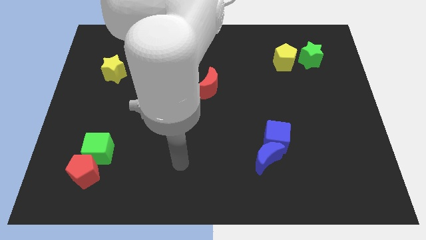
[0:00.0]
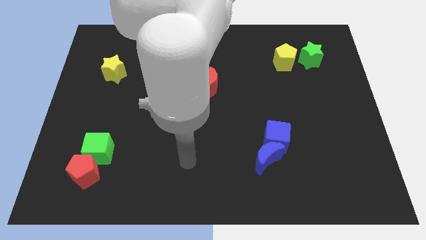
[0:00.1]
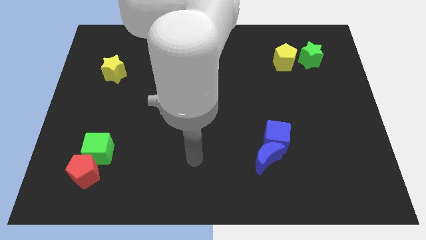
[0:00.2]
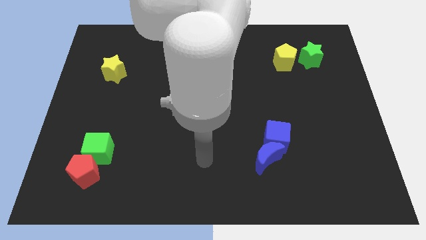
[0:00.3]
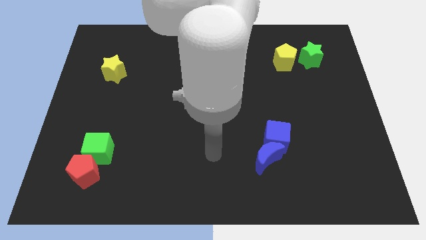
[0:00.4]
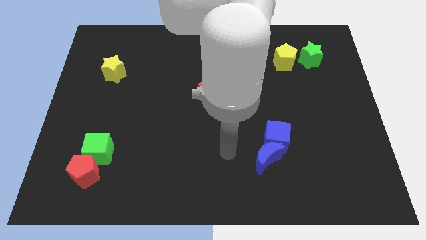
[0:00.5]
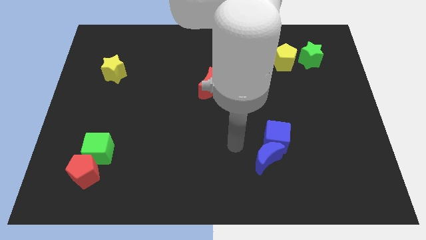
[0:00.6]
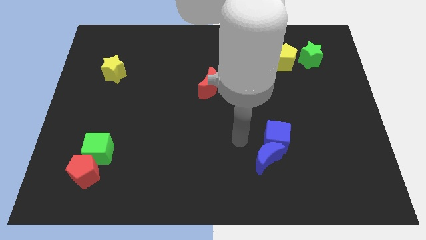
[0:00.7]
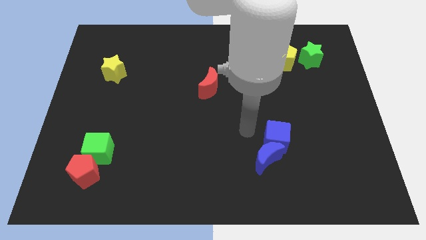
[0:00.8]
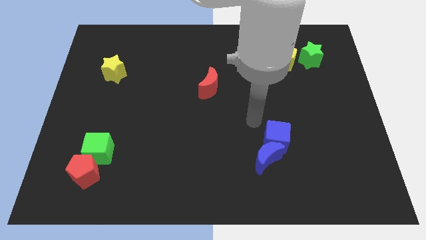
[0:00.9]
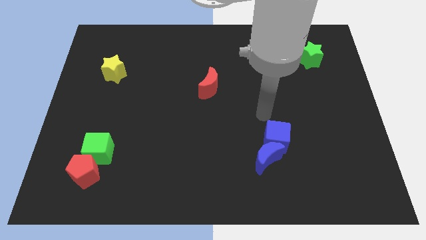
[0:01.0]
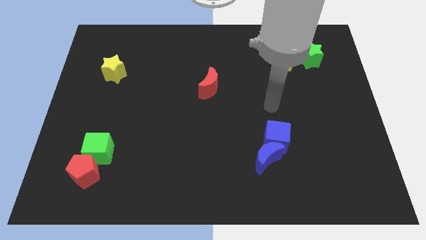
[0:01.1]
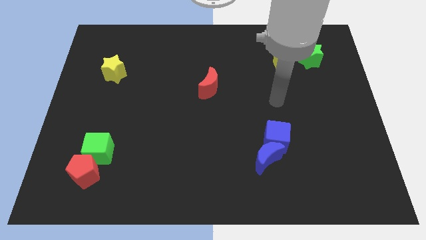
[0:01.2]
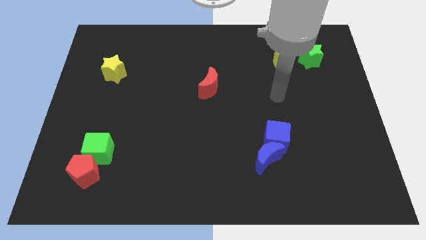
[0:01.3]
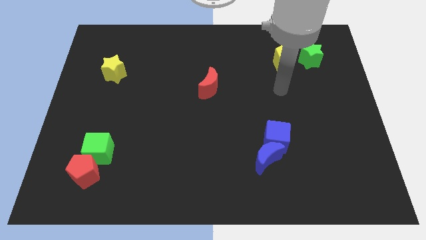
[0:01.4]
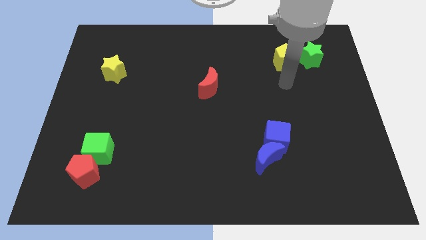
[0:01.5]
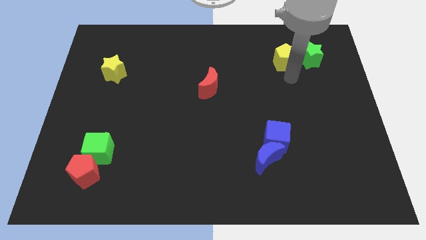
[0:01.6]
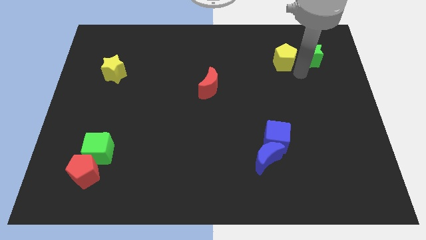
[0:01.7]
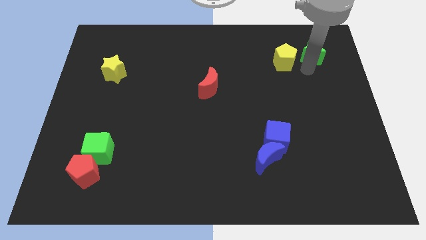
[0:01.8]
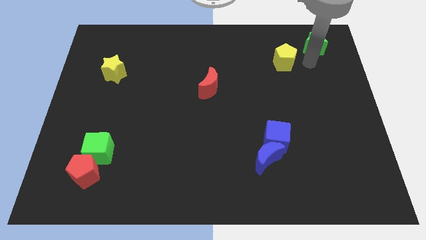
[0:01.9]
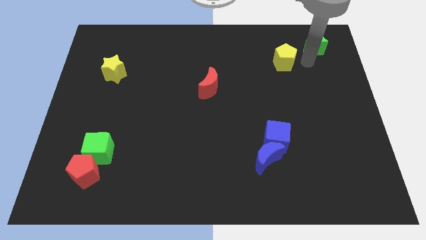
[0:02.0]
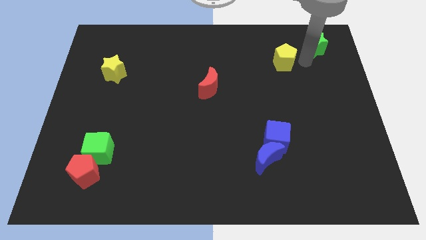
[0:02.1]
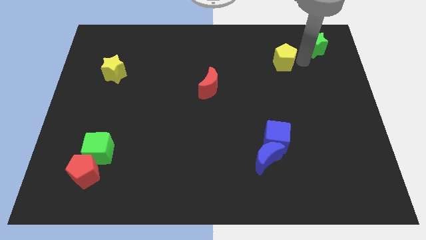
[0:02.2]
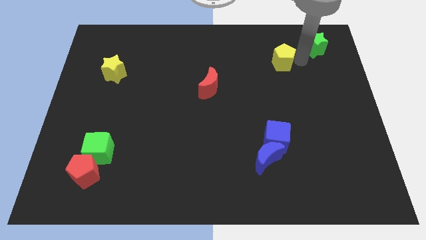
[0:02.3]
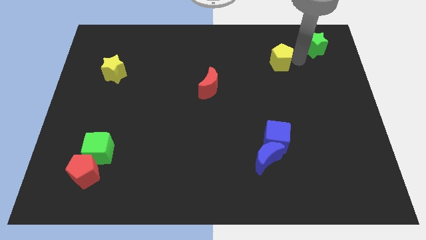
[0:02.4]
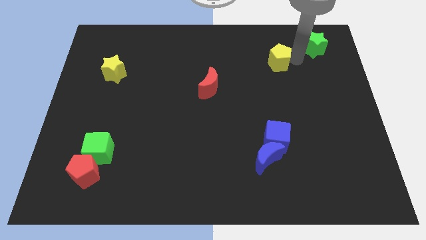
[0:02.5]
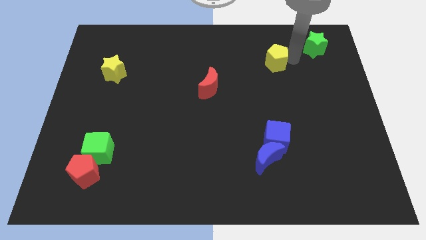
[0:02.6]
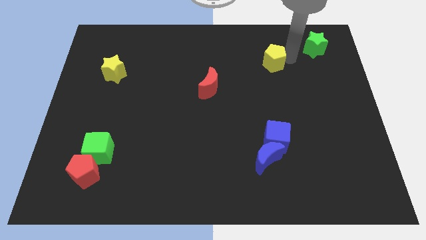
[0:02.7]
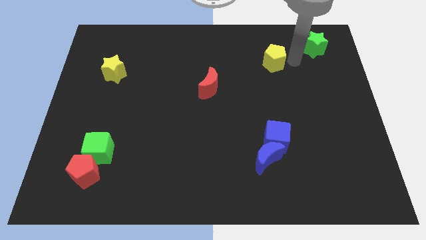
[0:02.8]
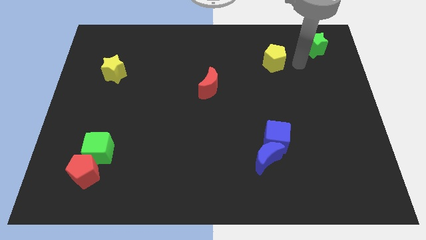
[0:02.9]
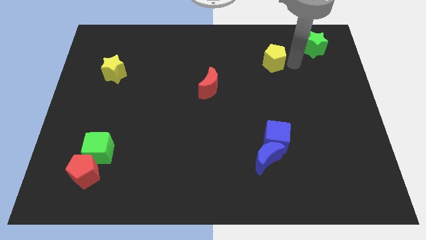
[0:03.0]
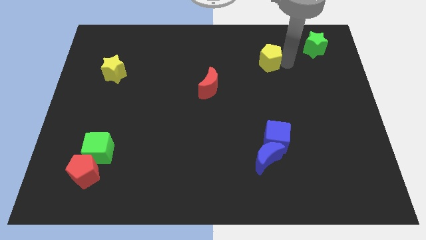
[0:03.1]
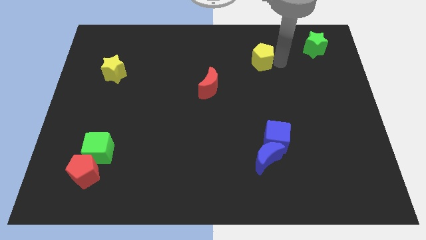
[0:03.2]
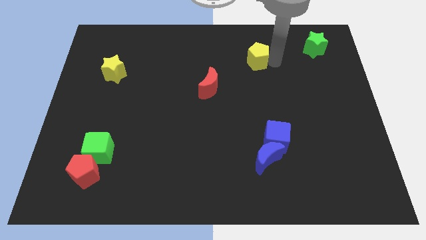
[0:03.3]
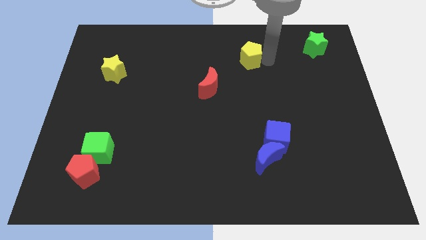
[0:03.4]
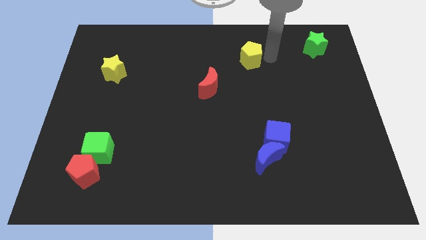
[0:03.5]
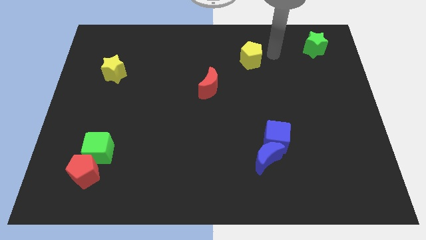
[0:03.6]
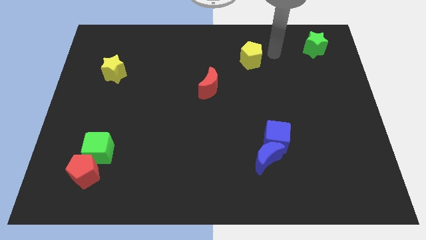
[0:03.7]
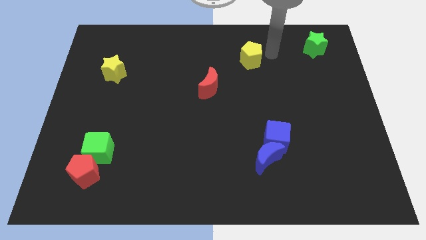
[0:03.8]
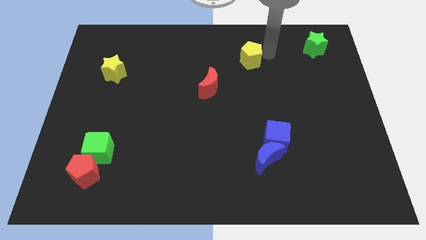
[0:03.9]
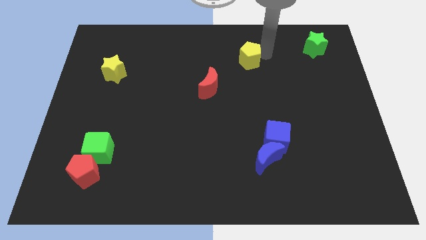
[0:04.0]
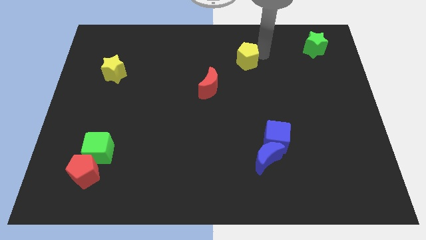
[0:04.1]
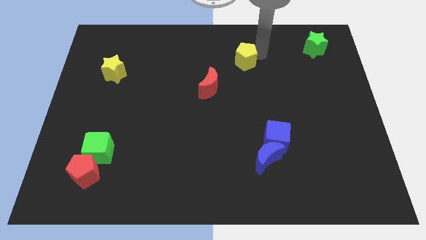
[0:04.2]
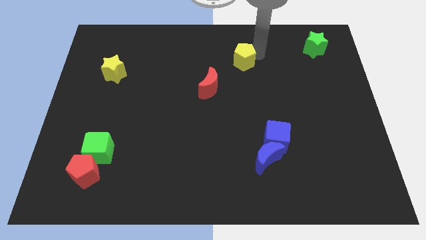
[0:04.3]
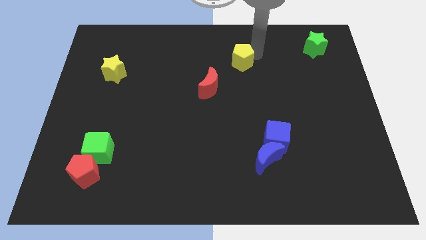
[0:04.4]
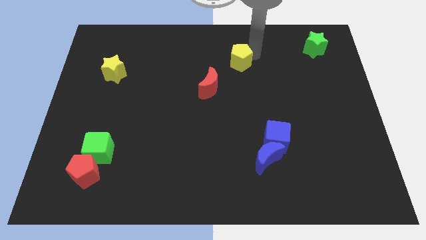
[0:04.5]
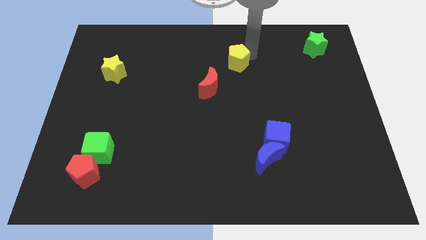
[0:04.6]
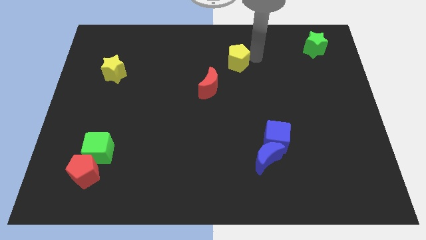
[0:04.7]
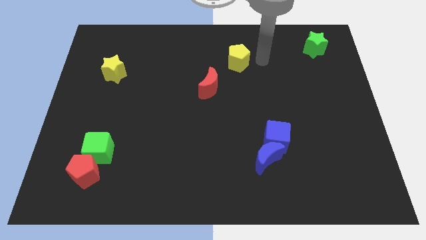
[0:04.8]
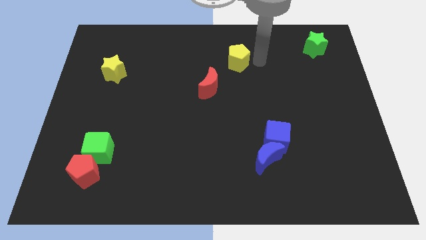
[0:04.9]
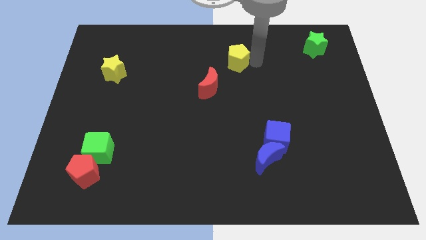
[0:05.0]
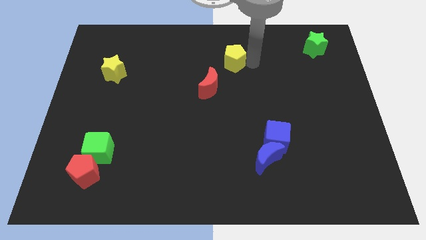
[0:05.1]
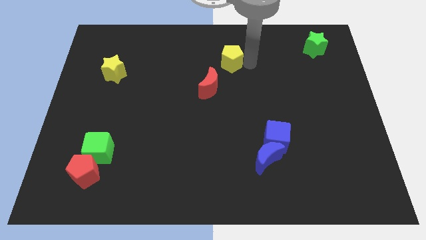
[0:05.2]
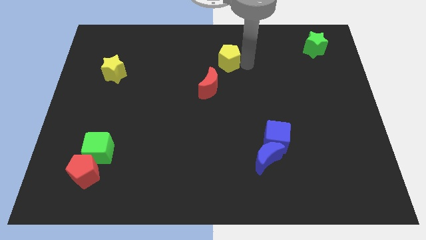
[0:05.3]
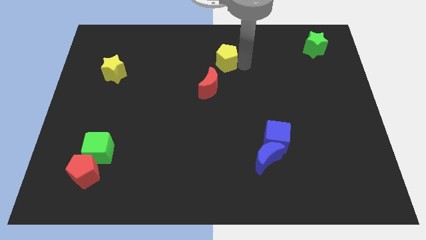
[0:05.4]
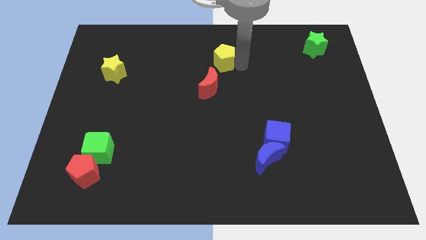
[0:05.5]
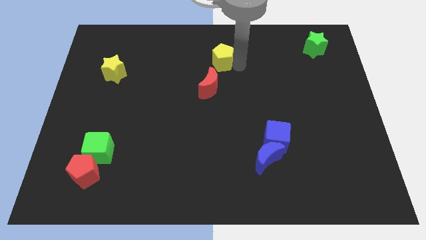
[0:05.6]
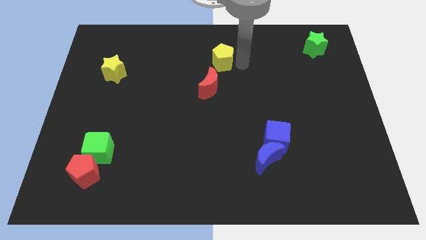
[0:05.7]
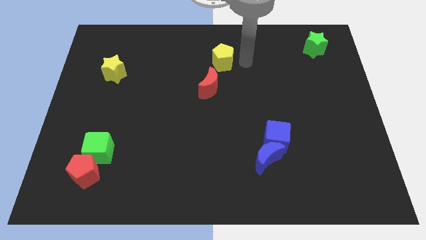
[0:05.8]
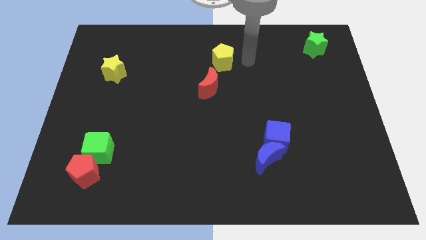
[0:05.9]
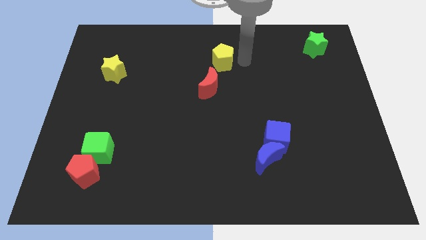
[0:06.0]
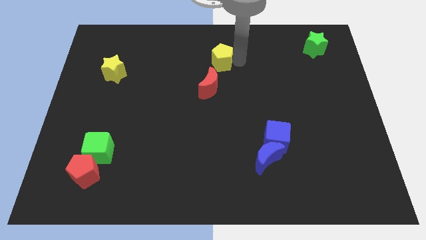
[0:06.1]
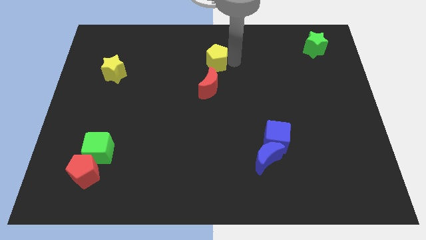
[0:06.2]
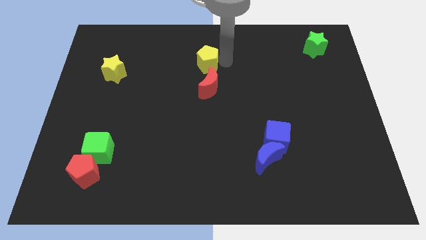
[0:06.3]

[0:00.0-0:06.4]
slide the yellow pentagon to the left

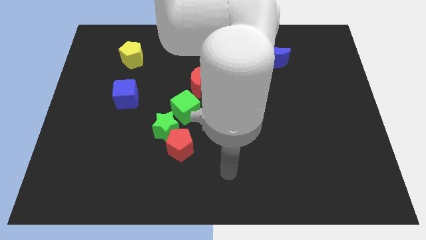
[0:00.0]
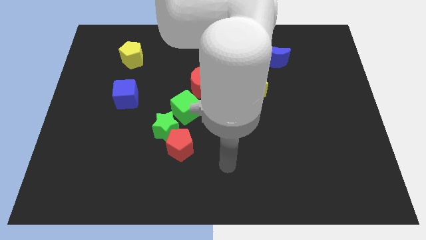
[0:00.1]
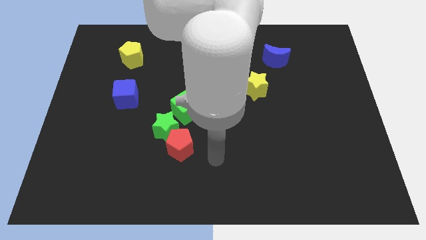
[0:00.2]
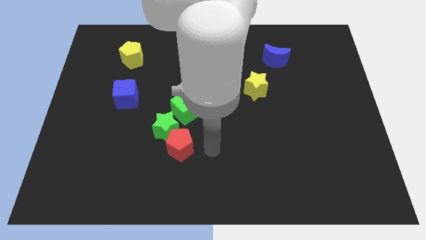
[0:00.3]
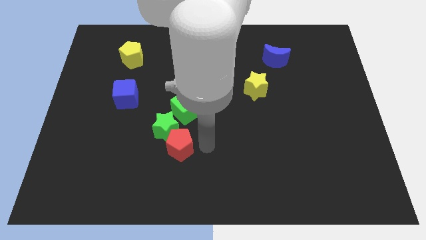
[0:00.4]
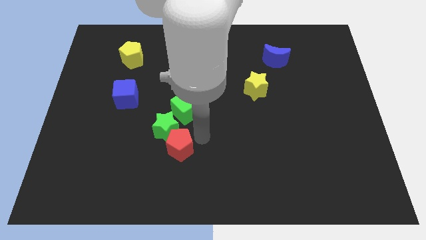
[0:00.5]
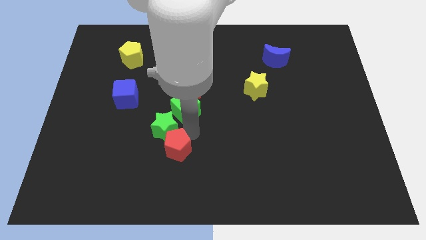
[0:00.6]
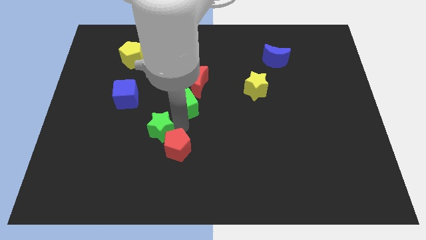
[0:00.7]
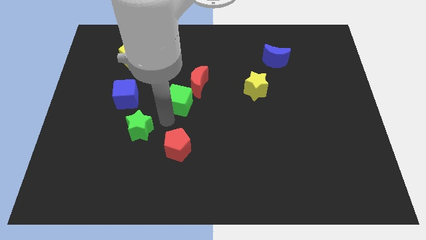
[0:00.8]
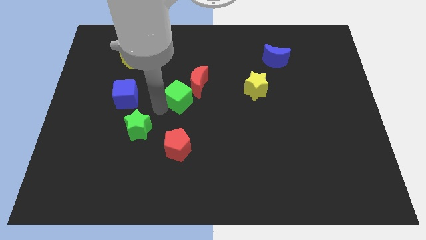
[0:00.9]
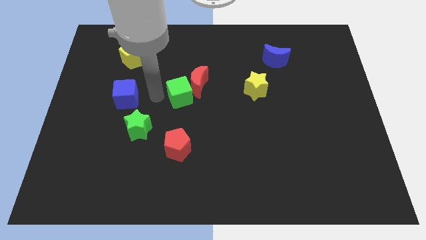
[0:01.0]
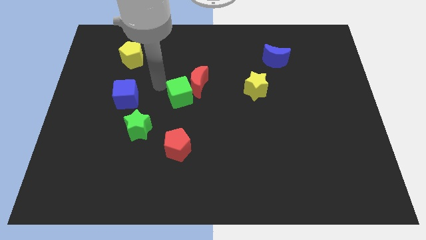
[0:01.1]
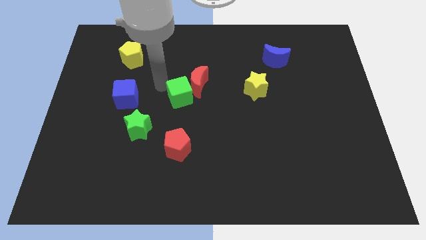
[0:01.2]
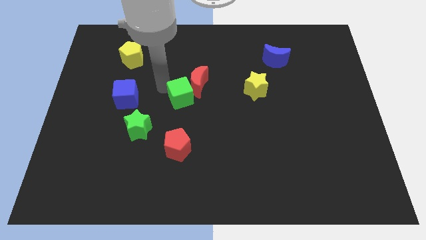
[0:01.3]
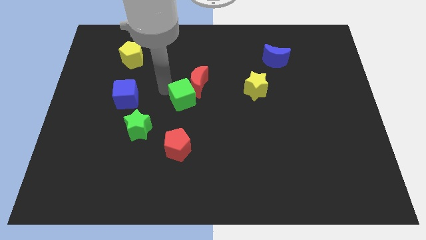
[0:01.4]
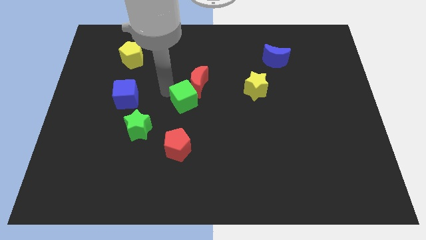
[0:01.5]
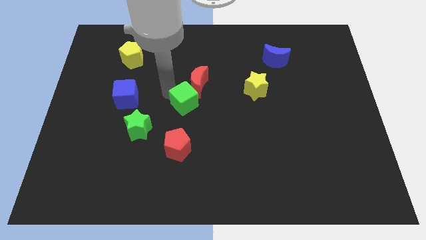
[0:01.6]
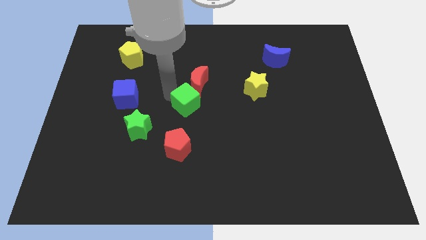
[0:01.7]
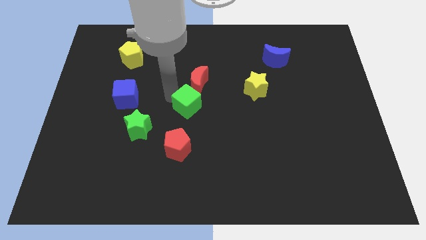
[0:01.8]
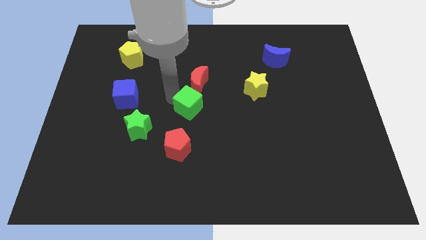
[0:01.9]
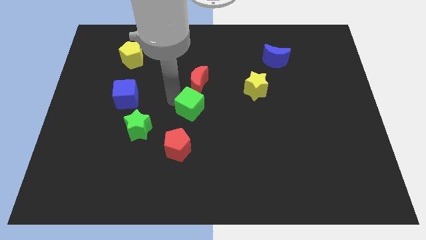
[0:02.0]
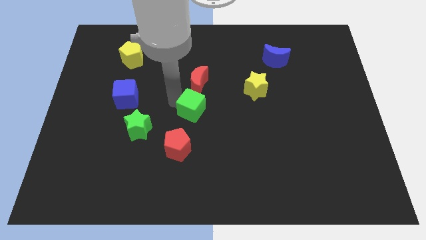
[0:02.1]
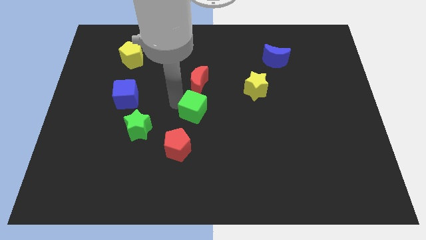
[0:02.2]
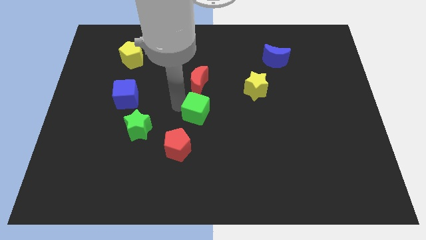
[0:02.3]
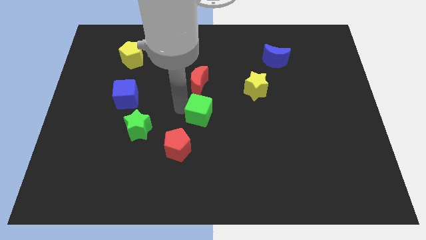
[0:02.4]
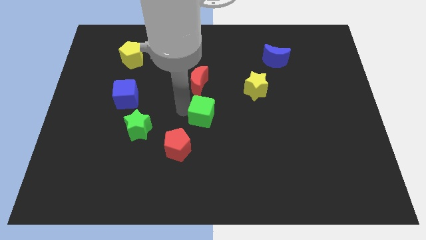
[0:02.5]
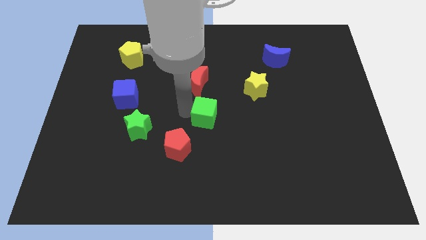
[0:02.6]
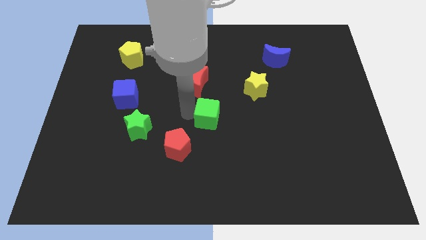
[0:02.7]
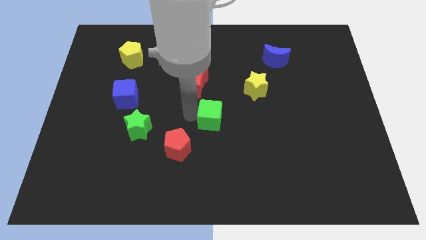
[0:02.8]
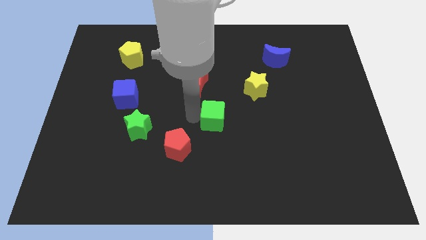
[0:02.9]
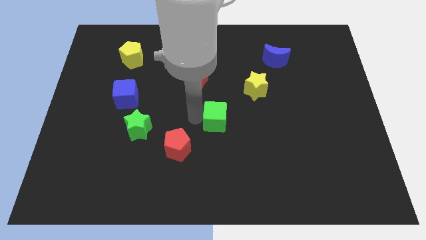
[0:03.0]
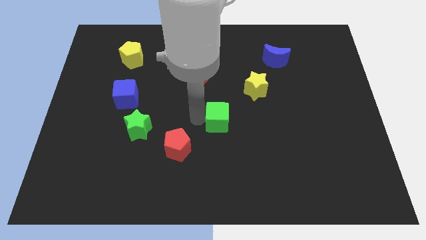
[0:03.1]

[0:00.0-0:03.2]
slide the green cube a bit to the right
